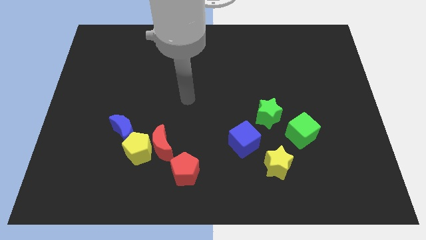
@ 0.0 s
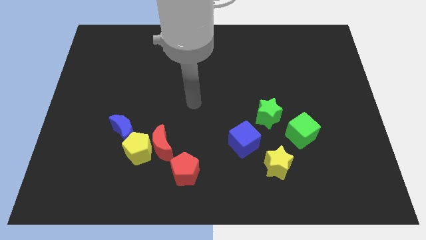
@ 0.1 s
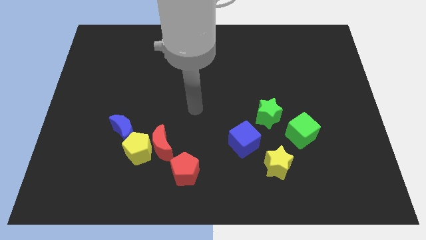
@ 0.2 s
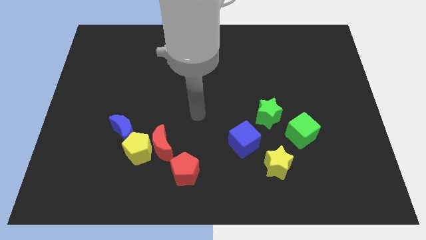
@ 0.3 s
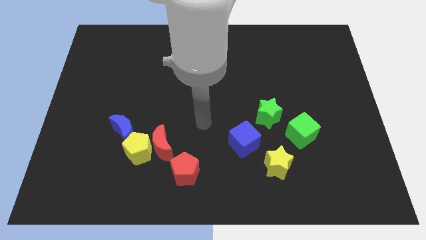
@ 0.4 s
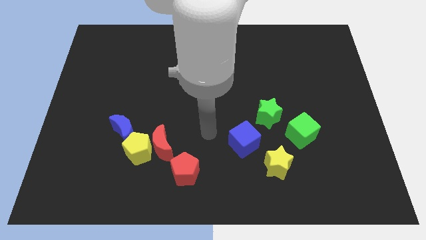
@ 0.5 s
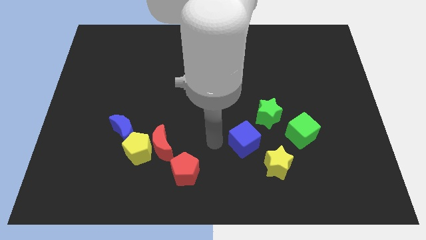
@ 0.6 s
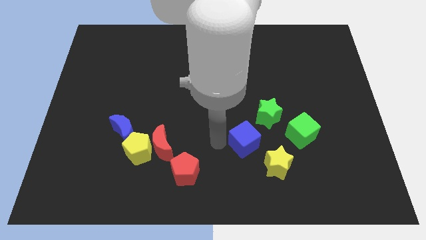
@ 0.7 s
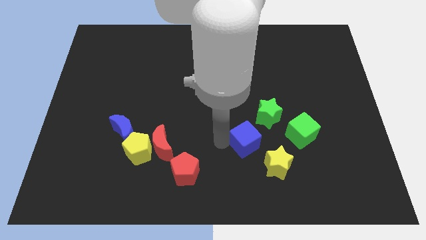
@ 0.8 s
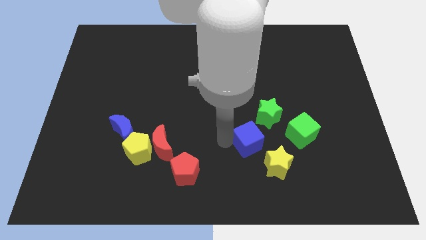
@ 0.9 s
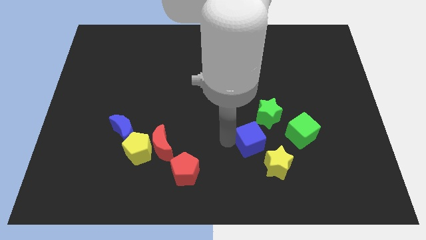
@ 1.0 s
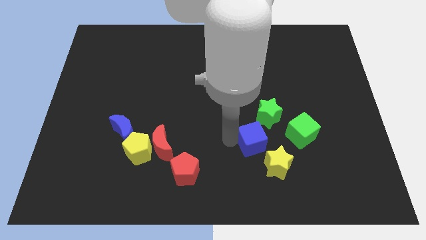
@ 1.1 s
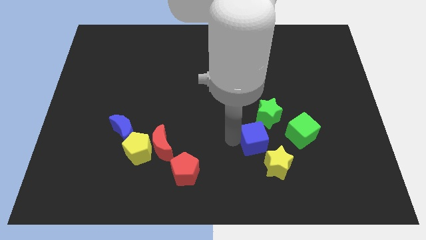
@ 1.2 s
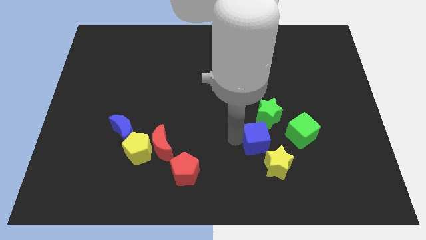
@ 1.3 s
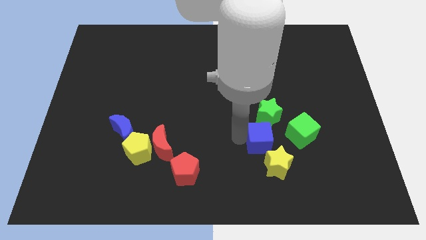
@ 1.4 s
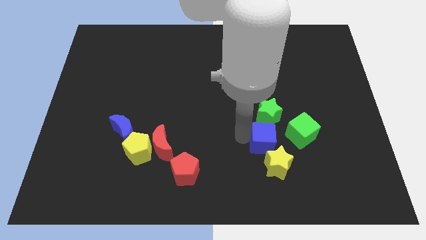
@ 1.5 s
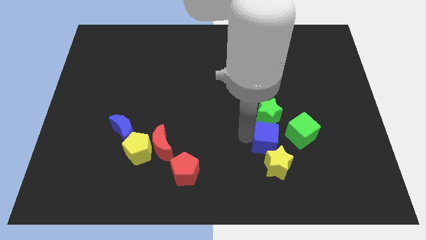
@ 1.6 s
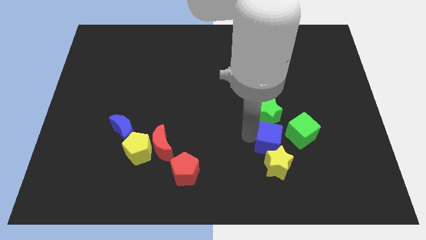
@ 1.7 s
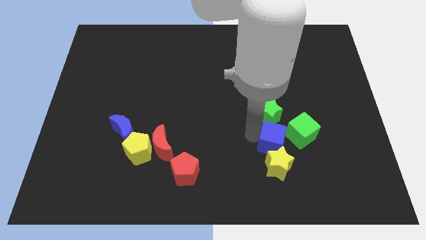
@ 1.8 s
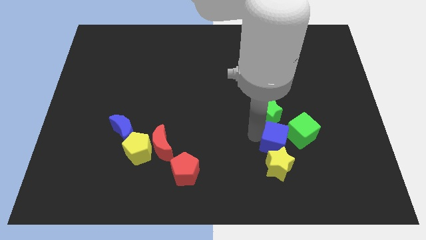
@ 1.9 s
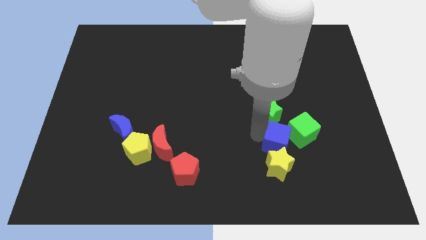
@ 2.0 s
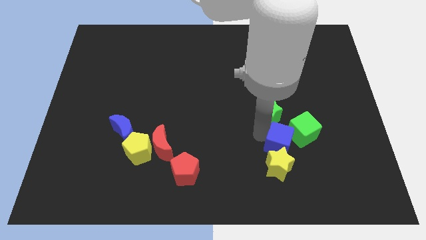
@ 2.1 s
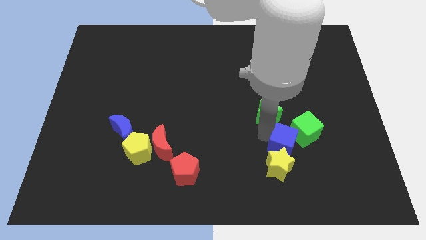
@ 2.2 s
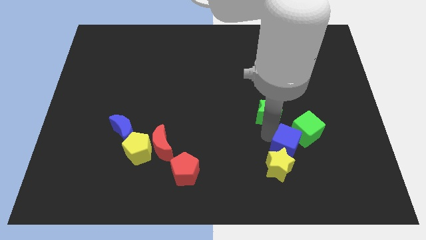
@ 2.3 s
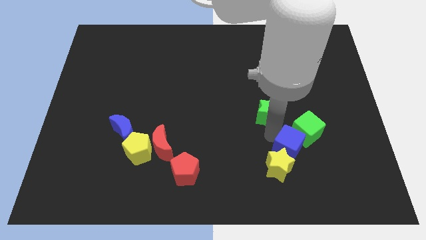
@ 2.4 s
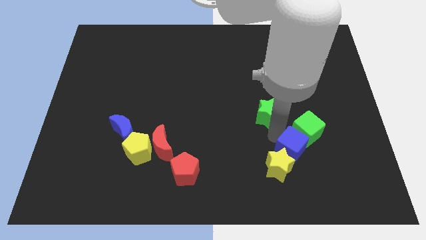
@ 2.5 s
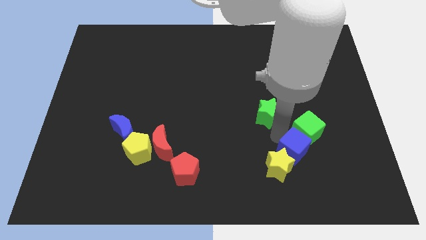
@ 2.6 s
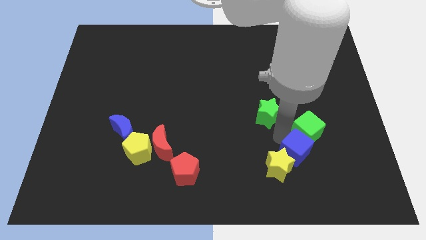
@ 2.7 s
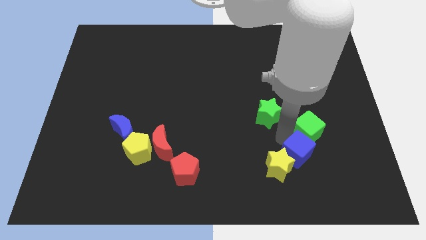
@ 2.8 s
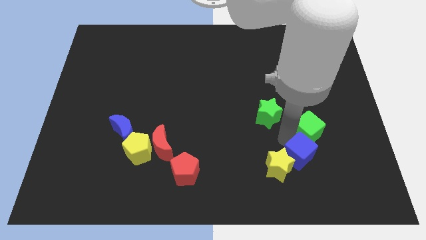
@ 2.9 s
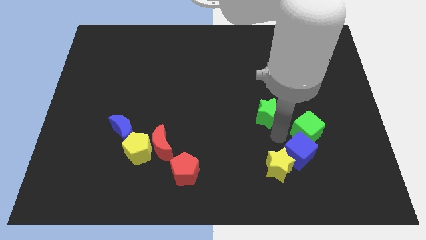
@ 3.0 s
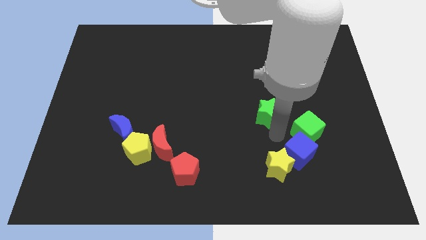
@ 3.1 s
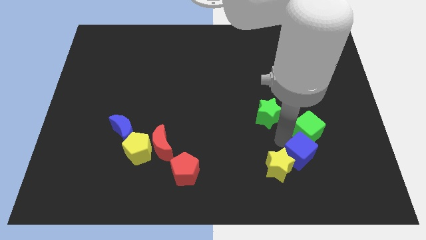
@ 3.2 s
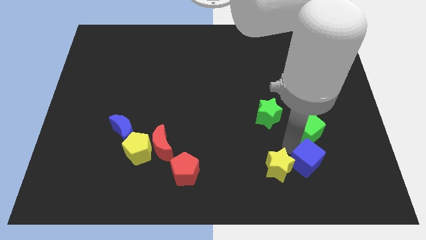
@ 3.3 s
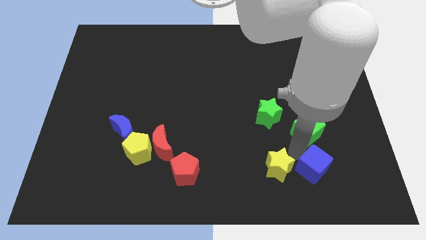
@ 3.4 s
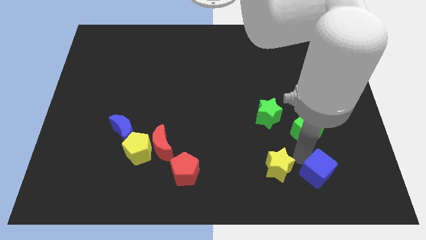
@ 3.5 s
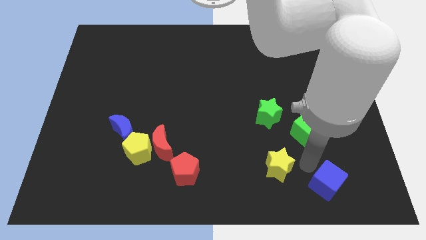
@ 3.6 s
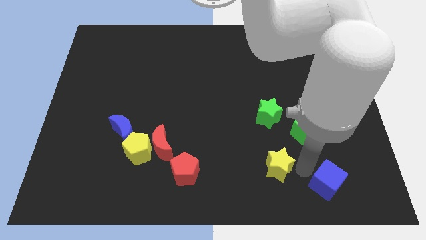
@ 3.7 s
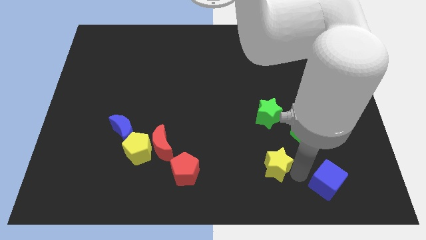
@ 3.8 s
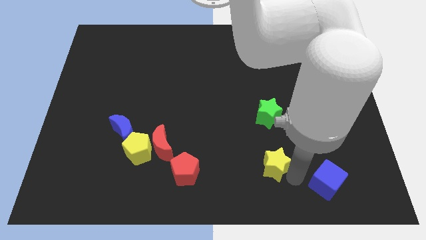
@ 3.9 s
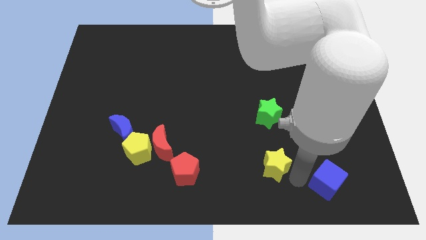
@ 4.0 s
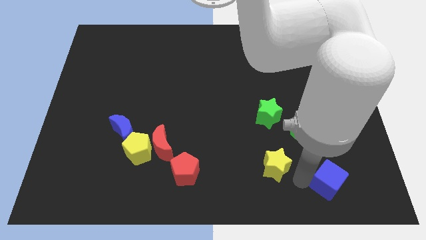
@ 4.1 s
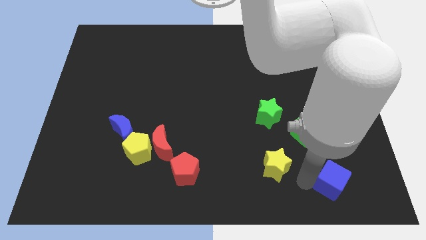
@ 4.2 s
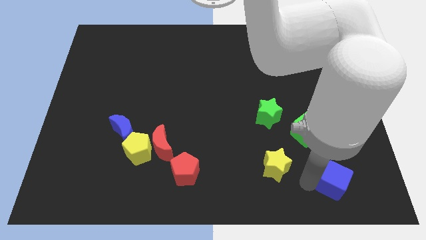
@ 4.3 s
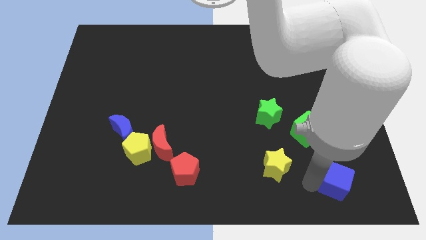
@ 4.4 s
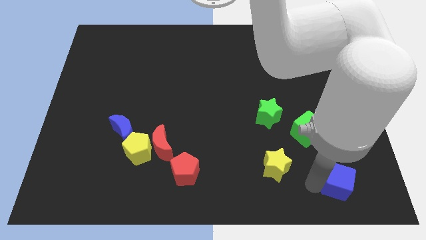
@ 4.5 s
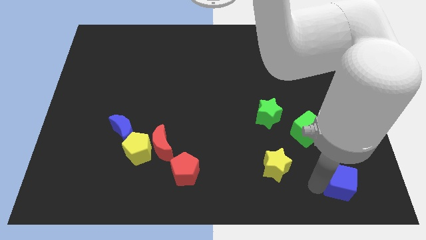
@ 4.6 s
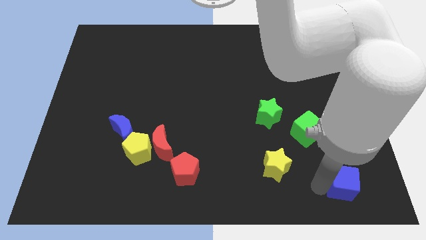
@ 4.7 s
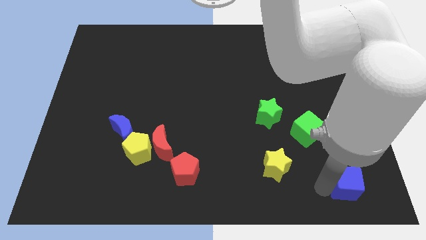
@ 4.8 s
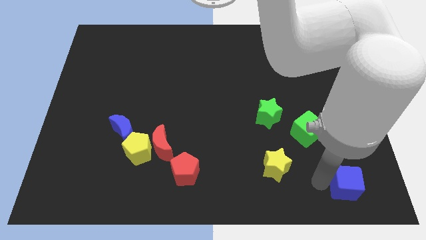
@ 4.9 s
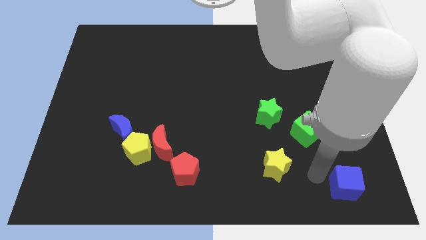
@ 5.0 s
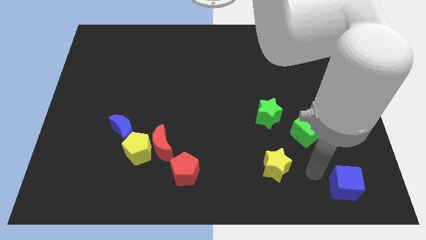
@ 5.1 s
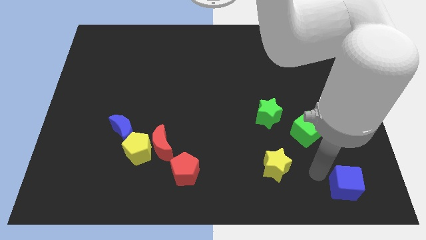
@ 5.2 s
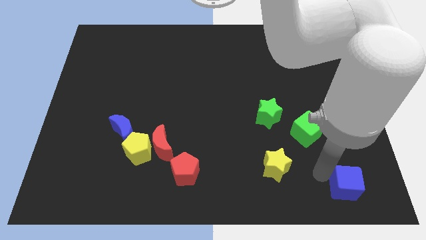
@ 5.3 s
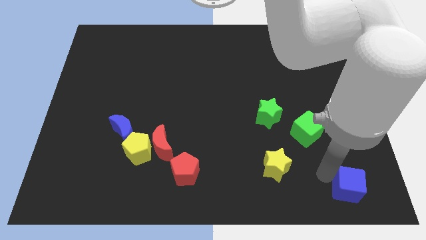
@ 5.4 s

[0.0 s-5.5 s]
push the blue cube to the bottom right

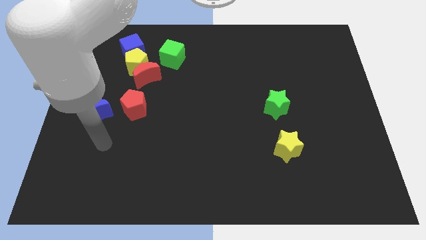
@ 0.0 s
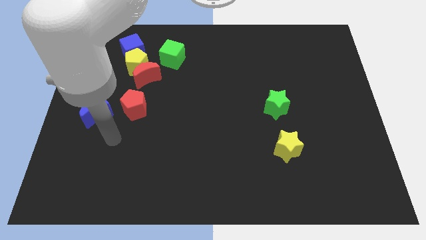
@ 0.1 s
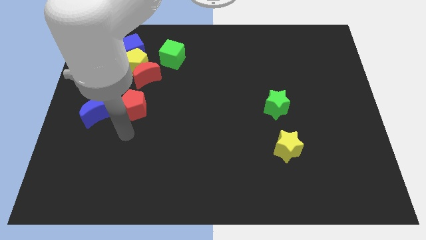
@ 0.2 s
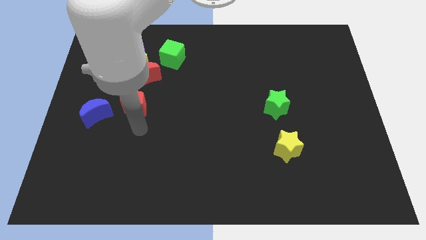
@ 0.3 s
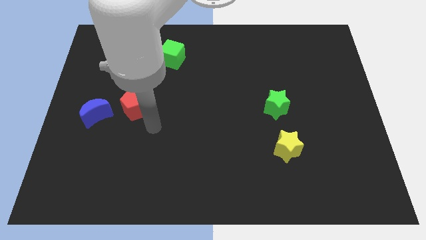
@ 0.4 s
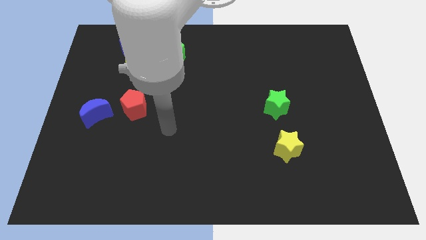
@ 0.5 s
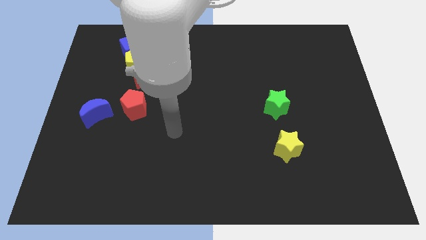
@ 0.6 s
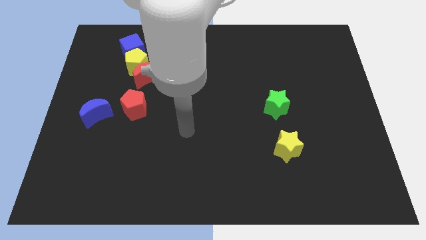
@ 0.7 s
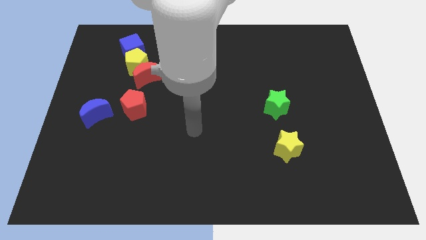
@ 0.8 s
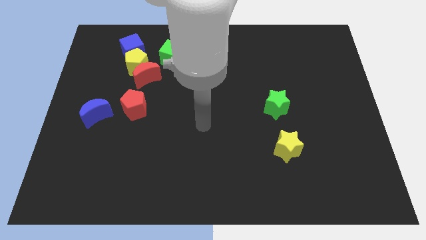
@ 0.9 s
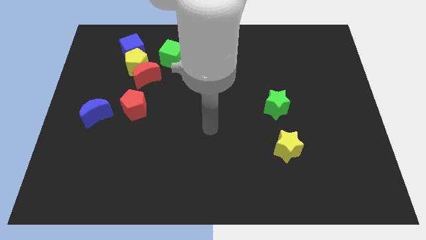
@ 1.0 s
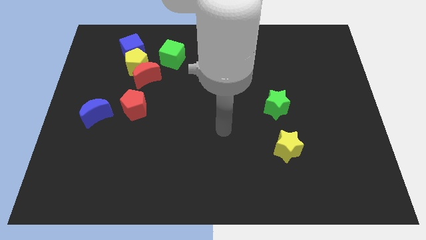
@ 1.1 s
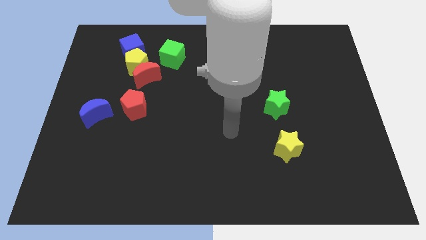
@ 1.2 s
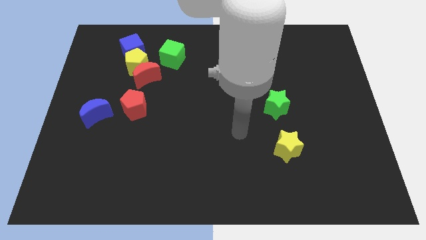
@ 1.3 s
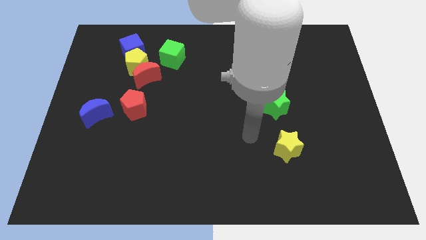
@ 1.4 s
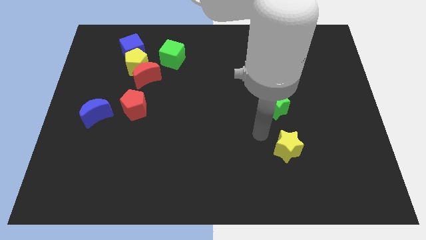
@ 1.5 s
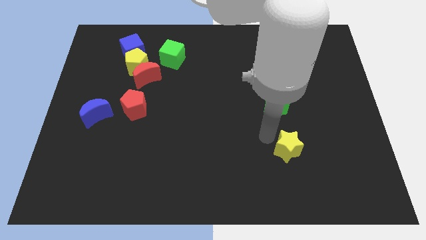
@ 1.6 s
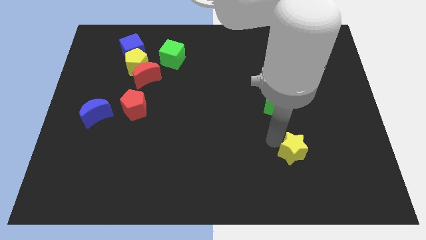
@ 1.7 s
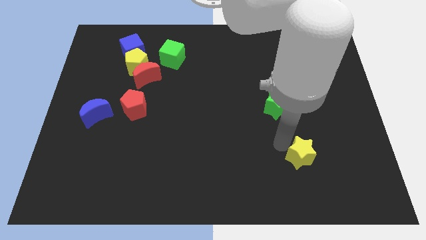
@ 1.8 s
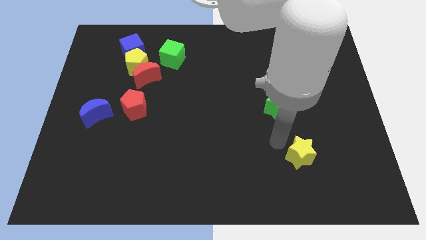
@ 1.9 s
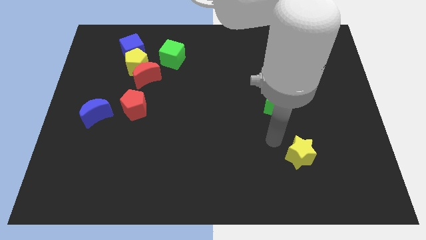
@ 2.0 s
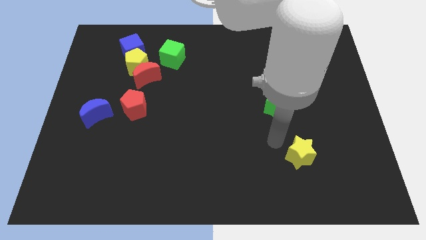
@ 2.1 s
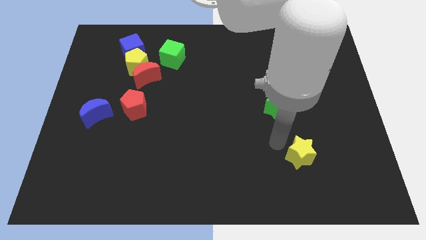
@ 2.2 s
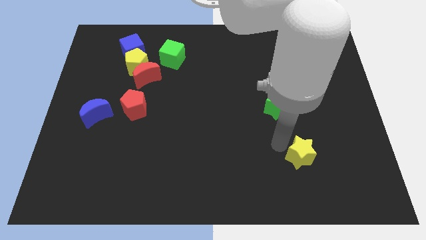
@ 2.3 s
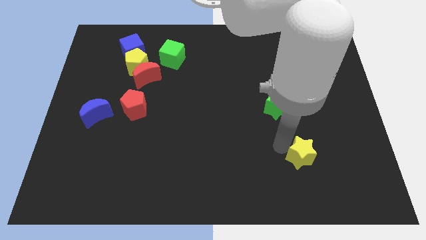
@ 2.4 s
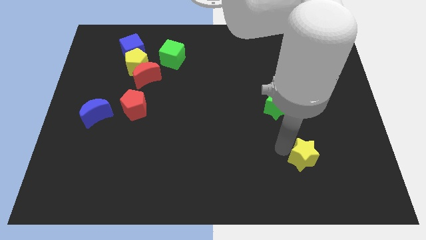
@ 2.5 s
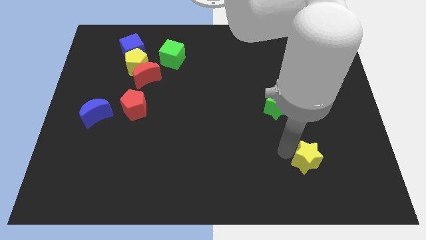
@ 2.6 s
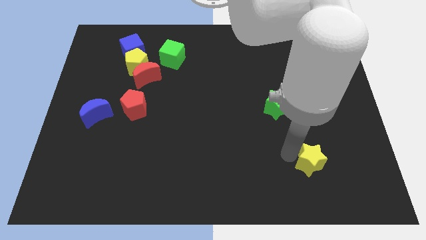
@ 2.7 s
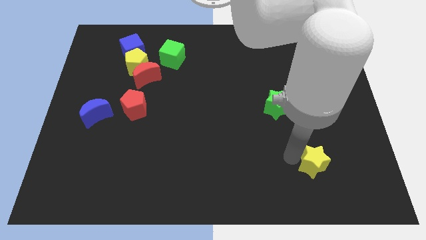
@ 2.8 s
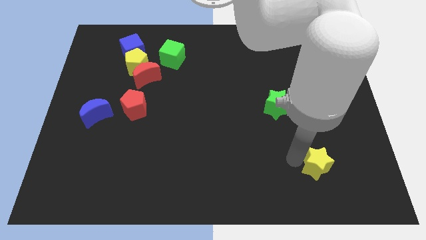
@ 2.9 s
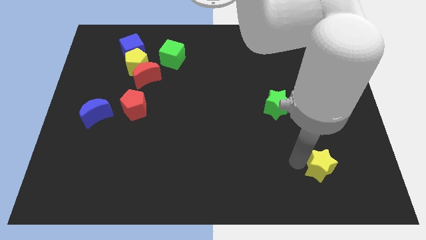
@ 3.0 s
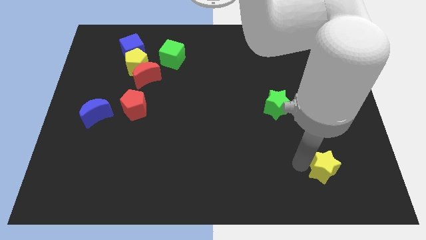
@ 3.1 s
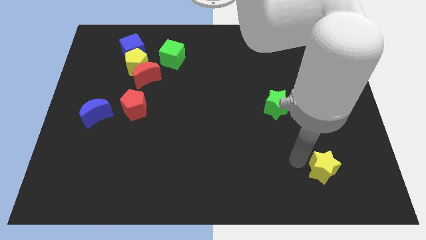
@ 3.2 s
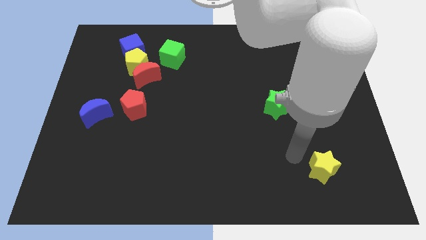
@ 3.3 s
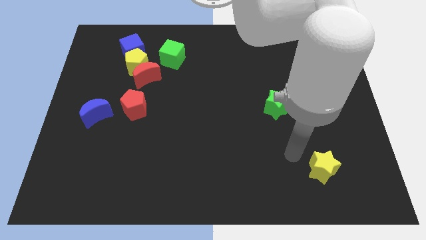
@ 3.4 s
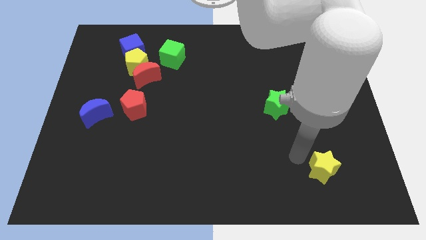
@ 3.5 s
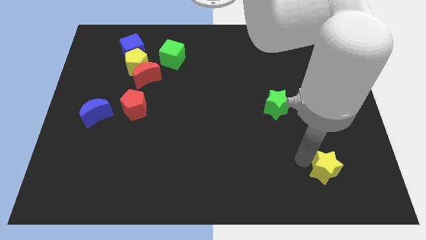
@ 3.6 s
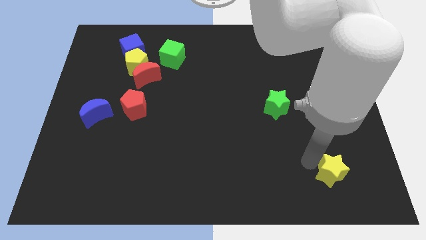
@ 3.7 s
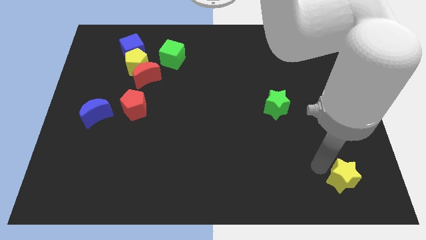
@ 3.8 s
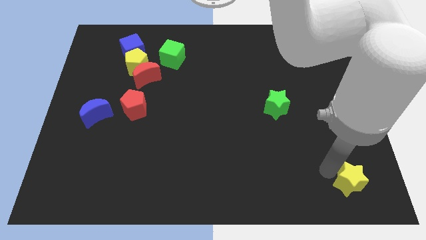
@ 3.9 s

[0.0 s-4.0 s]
slide the yellow star to the bottom right of the board
